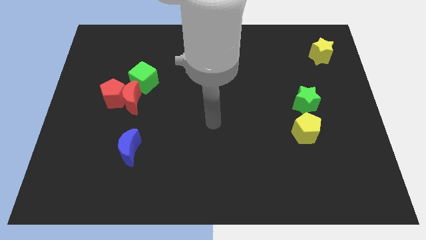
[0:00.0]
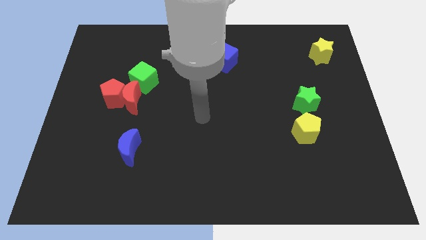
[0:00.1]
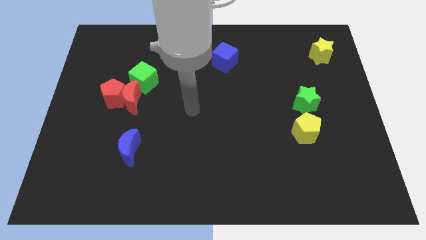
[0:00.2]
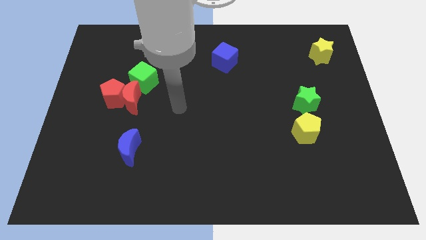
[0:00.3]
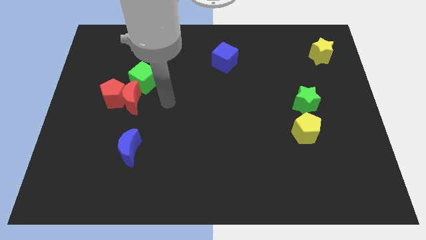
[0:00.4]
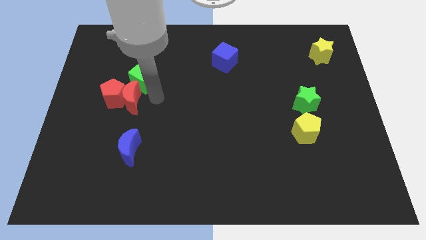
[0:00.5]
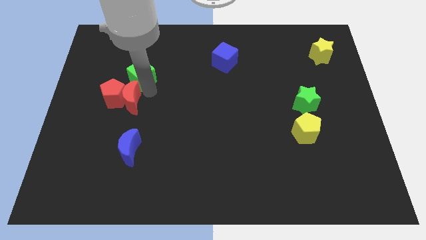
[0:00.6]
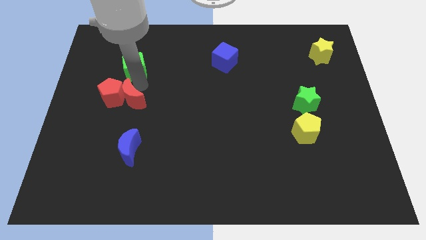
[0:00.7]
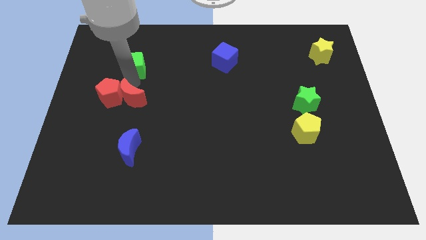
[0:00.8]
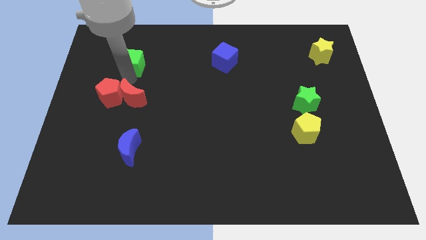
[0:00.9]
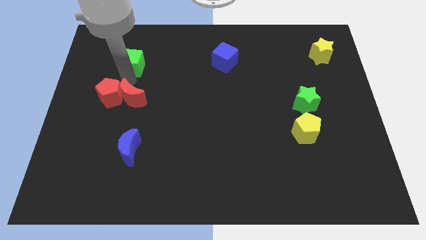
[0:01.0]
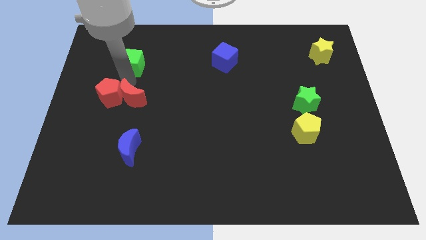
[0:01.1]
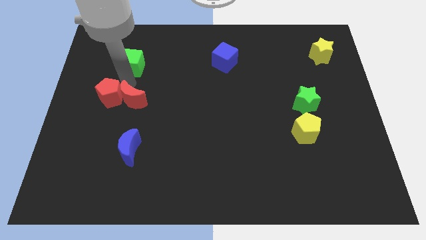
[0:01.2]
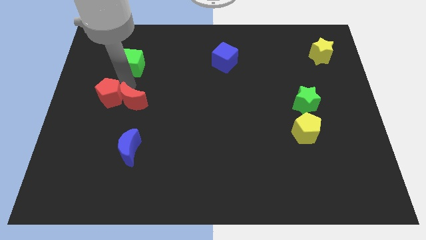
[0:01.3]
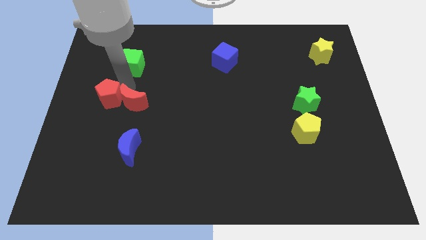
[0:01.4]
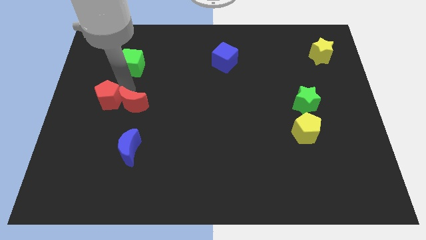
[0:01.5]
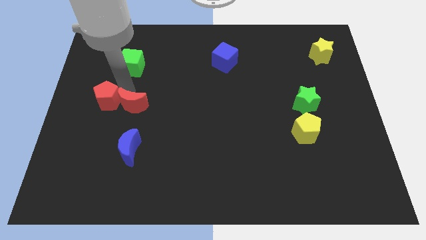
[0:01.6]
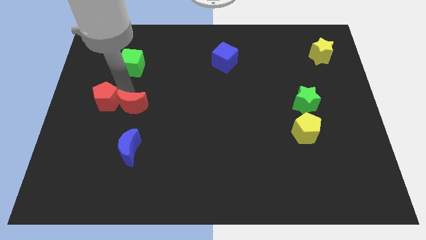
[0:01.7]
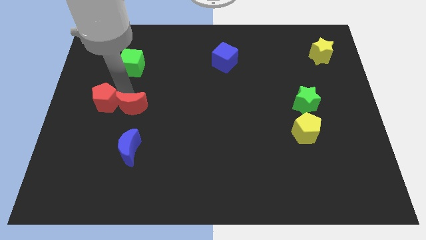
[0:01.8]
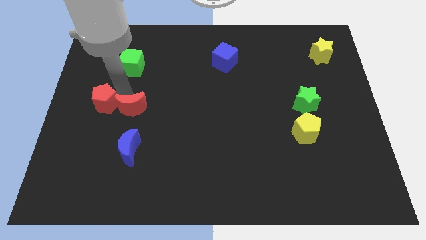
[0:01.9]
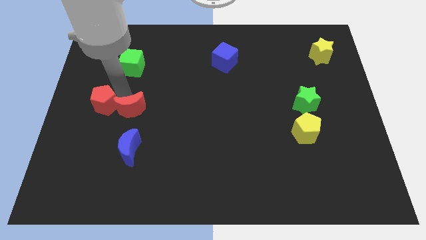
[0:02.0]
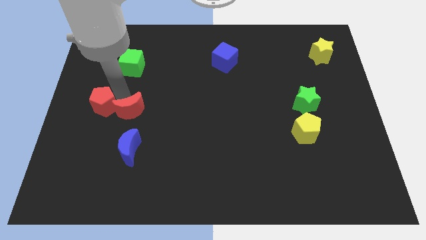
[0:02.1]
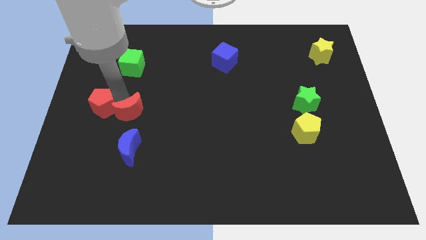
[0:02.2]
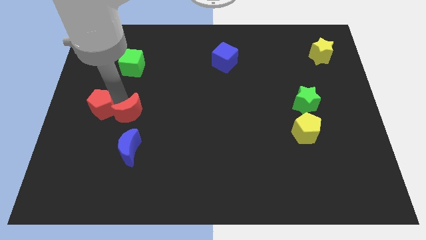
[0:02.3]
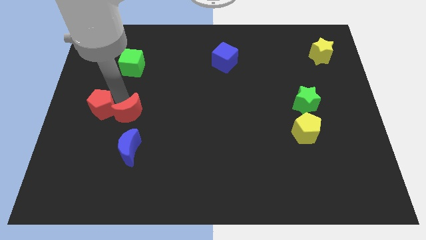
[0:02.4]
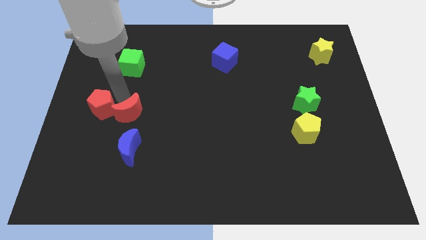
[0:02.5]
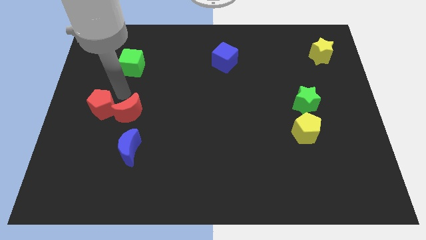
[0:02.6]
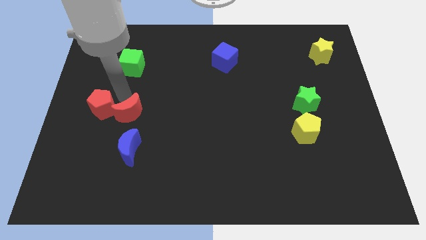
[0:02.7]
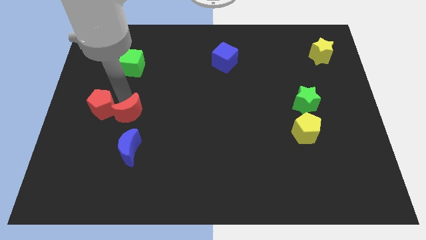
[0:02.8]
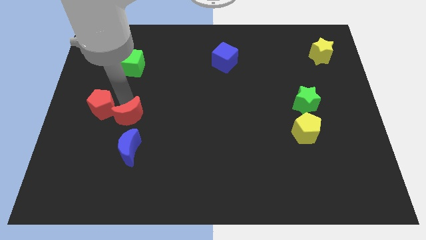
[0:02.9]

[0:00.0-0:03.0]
pull the red moon apart from the red pentagon and green cube

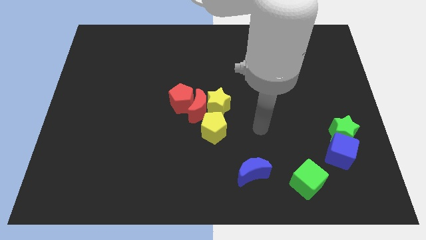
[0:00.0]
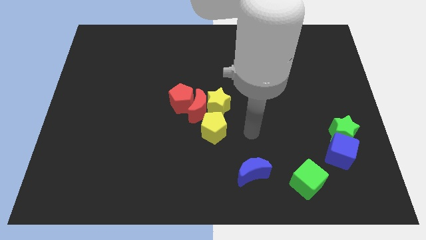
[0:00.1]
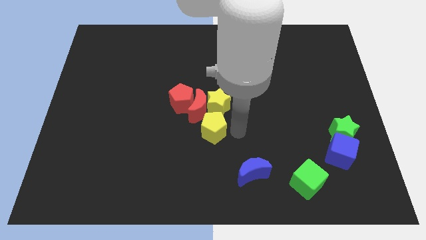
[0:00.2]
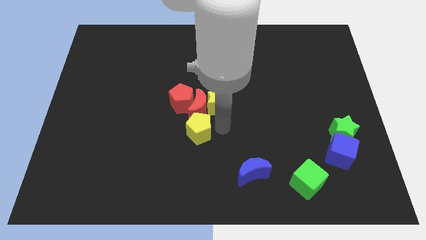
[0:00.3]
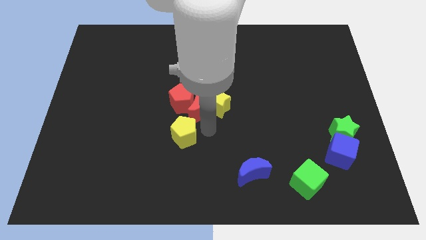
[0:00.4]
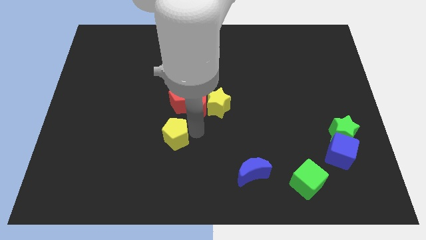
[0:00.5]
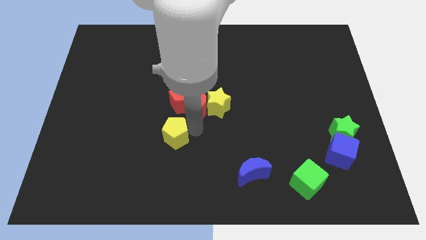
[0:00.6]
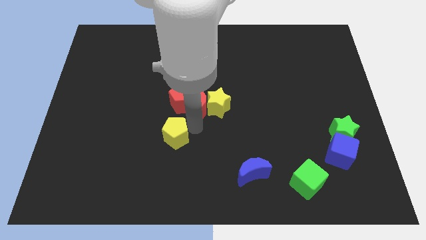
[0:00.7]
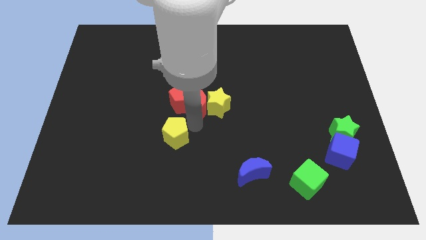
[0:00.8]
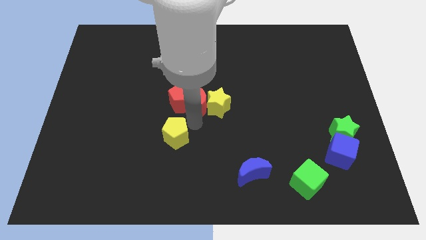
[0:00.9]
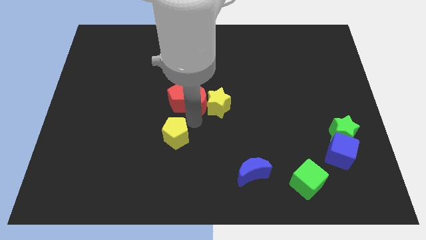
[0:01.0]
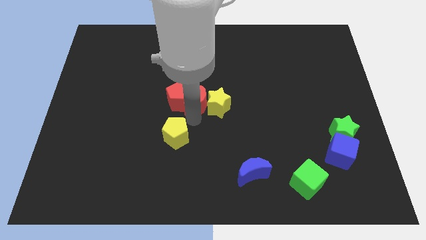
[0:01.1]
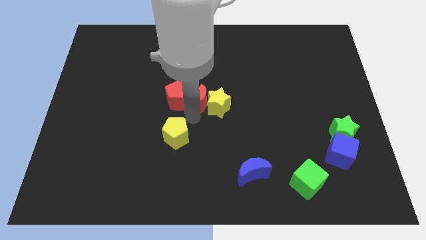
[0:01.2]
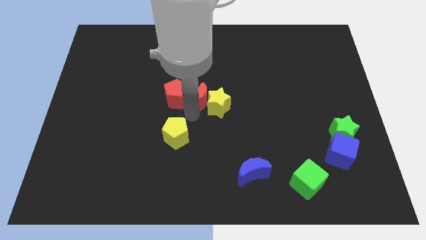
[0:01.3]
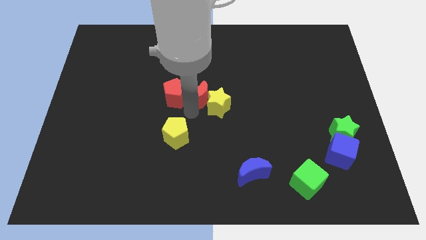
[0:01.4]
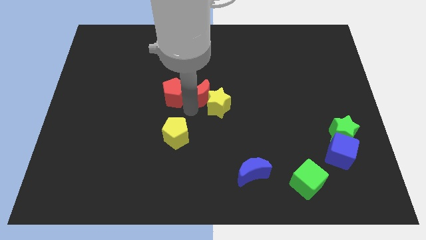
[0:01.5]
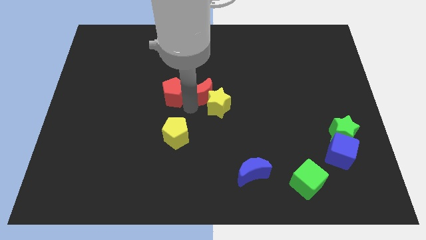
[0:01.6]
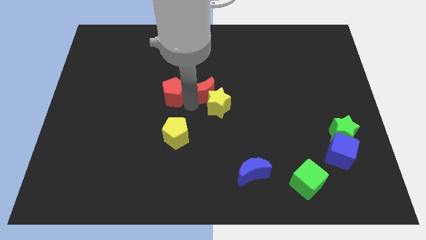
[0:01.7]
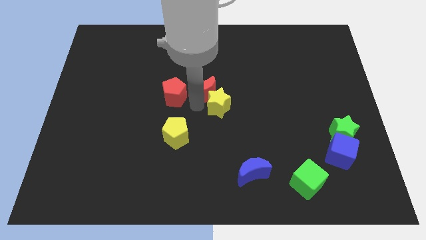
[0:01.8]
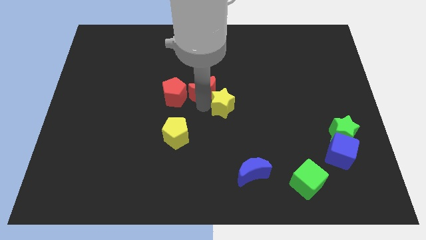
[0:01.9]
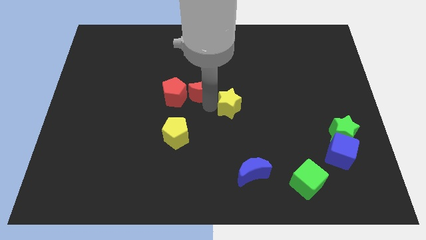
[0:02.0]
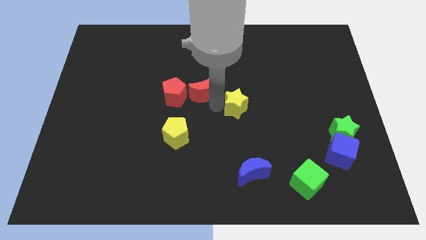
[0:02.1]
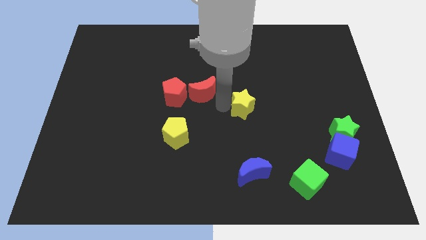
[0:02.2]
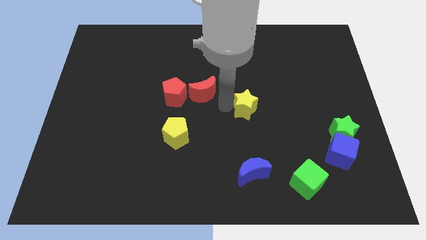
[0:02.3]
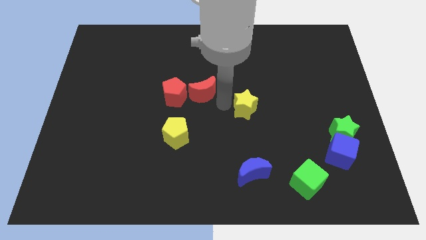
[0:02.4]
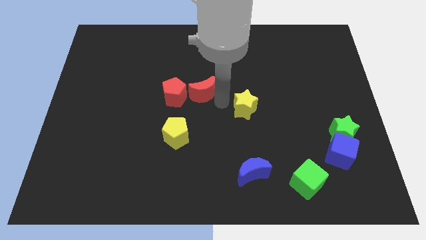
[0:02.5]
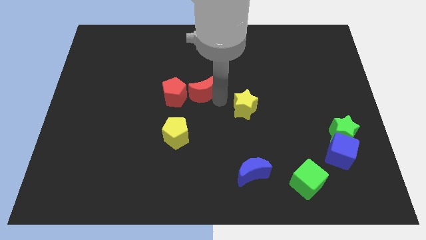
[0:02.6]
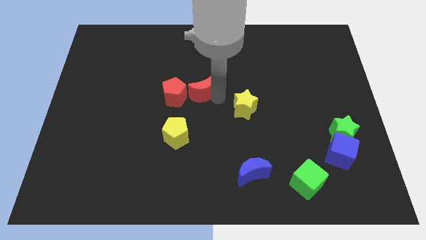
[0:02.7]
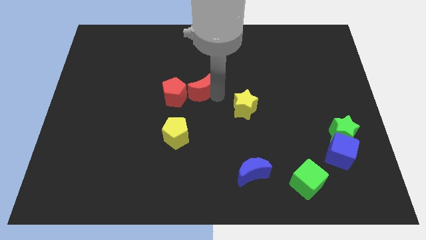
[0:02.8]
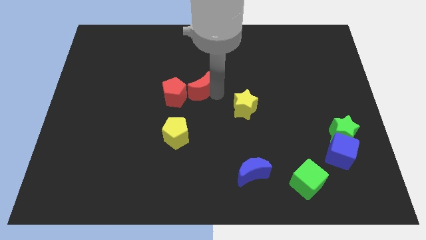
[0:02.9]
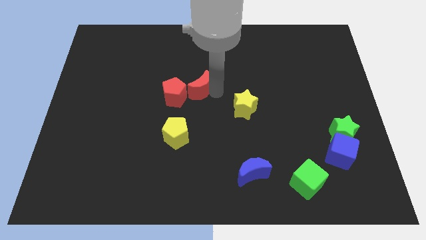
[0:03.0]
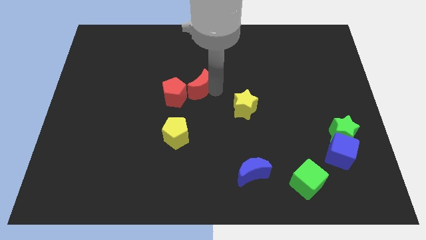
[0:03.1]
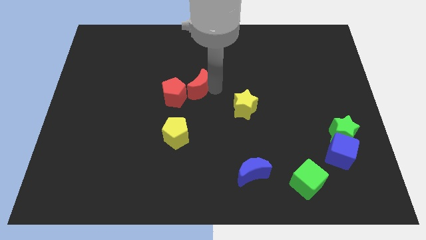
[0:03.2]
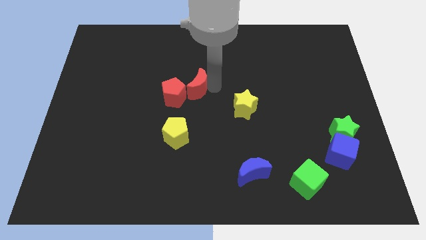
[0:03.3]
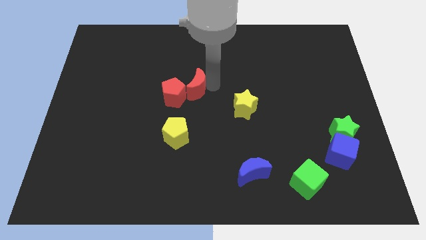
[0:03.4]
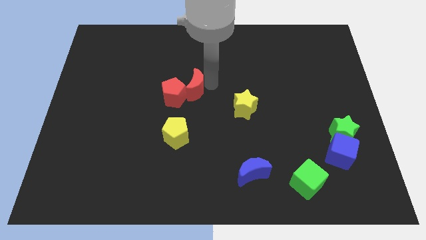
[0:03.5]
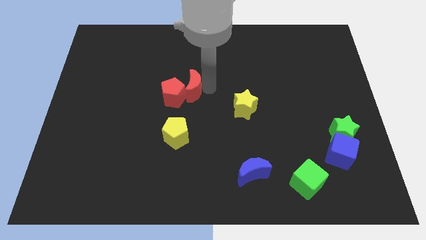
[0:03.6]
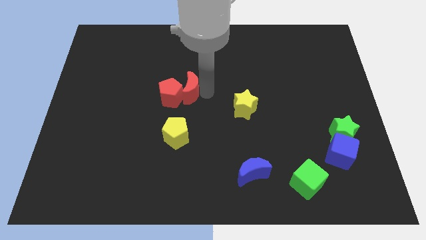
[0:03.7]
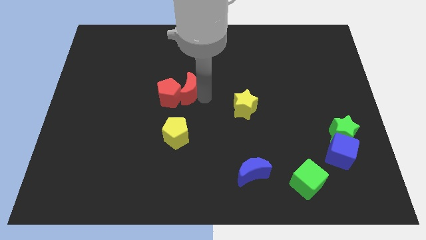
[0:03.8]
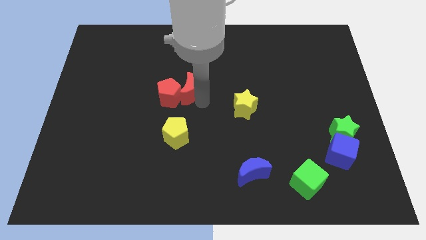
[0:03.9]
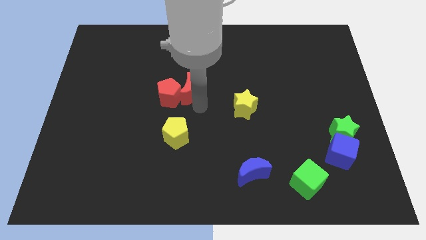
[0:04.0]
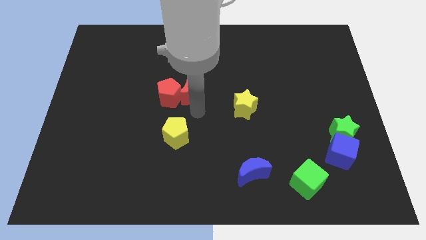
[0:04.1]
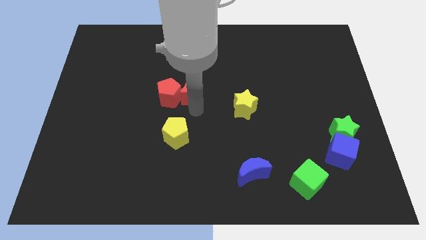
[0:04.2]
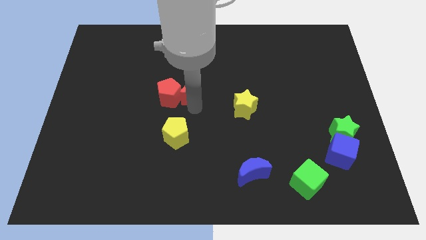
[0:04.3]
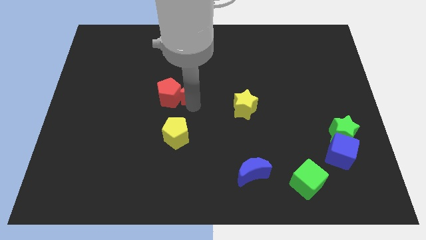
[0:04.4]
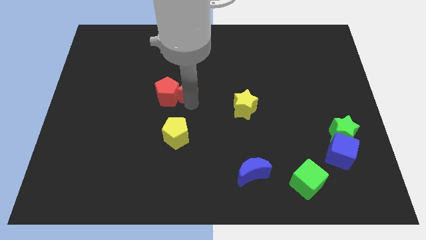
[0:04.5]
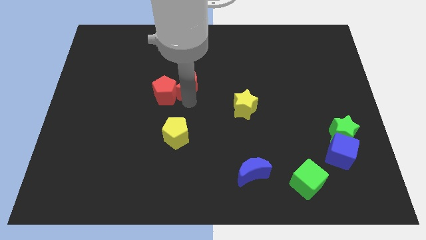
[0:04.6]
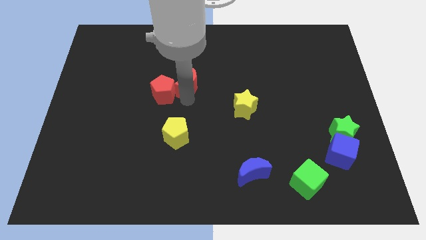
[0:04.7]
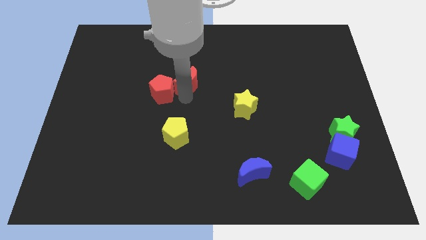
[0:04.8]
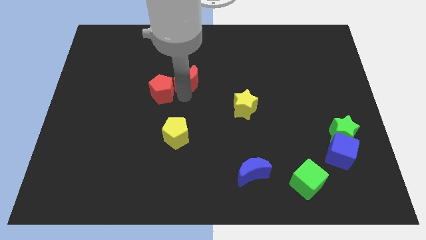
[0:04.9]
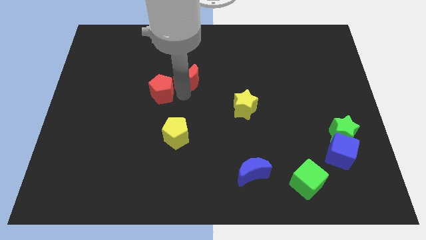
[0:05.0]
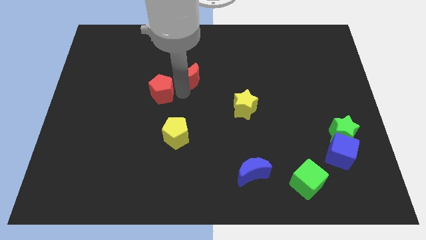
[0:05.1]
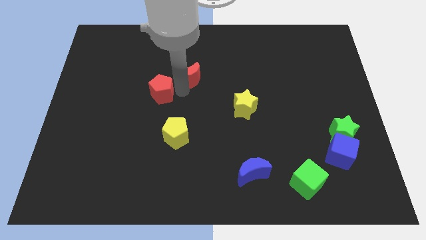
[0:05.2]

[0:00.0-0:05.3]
pull the red moon apart from the group of blocks

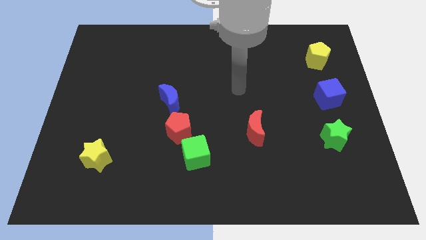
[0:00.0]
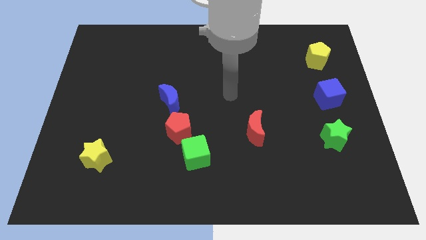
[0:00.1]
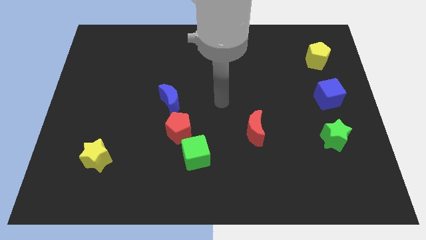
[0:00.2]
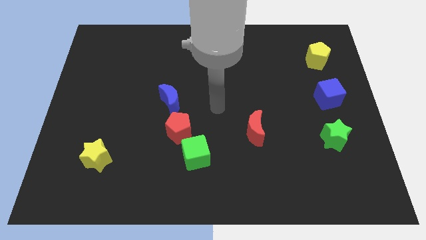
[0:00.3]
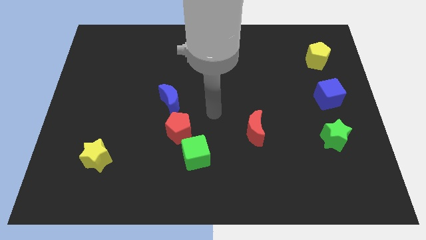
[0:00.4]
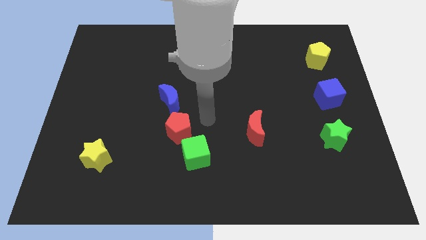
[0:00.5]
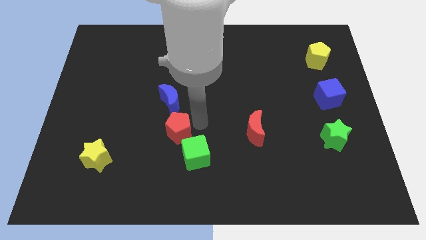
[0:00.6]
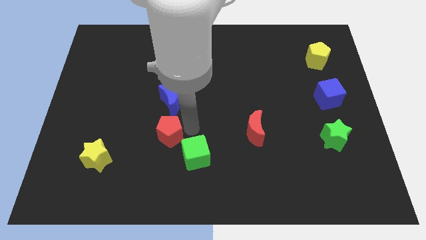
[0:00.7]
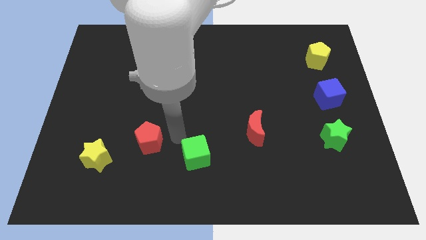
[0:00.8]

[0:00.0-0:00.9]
pull the green cube apart from the red pentagon

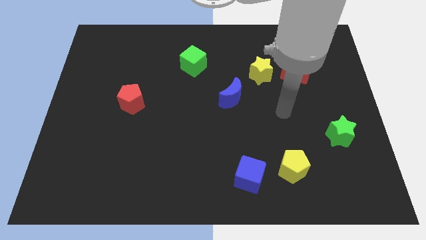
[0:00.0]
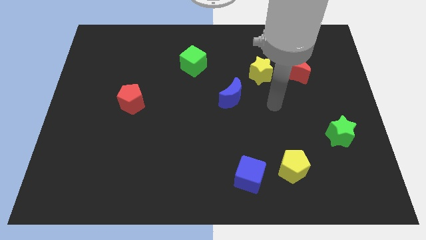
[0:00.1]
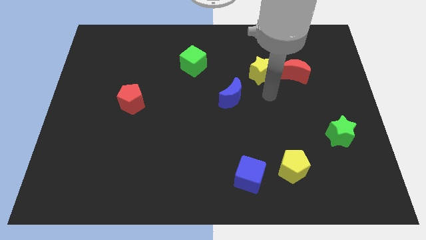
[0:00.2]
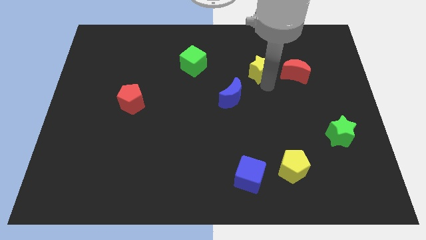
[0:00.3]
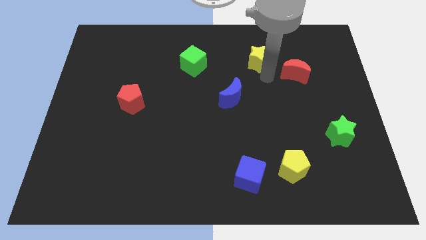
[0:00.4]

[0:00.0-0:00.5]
pull the red moon apart from the yellow star
